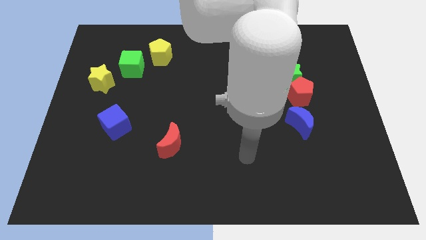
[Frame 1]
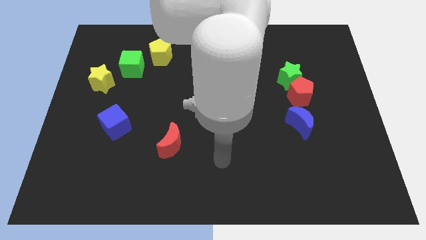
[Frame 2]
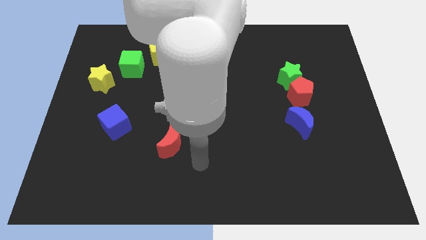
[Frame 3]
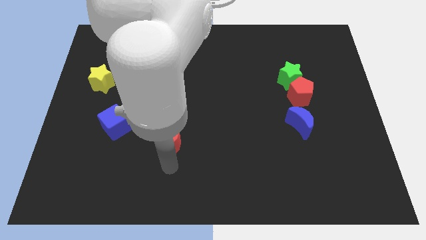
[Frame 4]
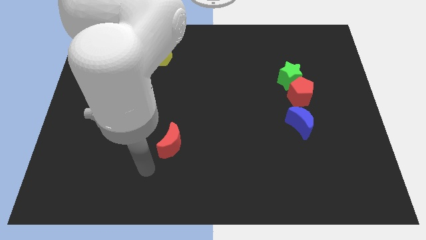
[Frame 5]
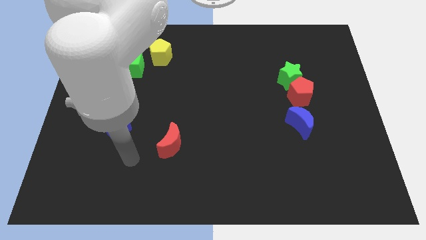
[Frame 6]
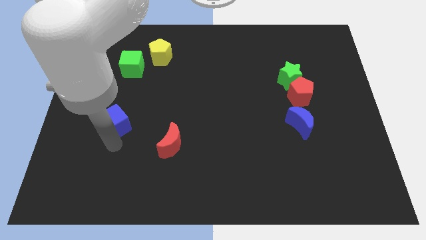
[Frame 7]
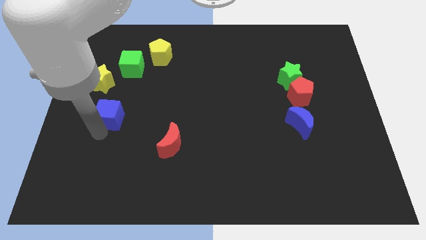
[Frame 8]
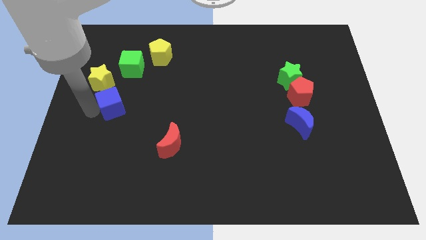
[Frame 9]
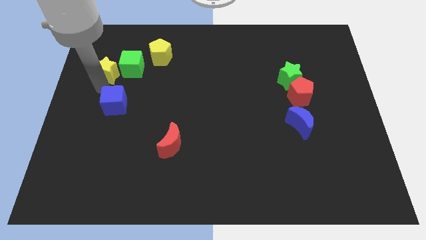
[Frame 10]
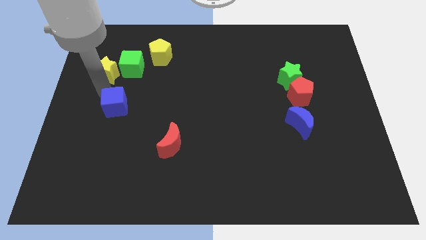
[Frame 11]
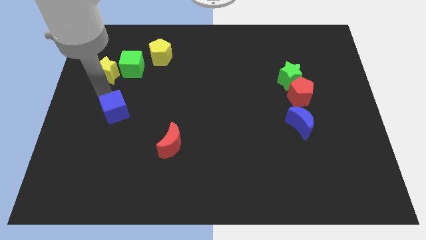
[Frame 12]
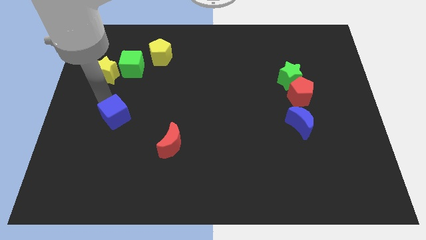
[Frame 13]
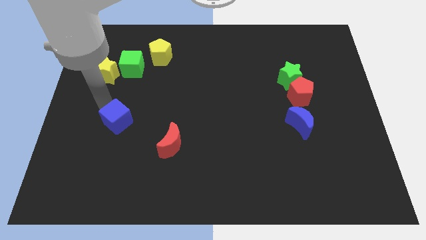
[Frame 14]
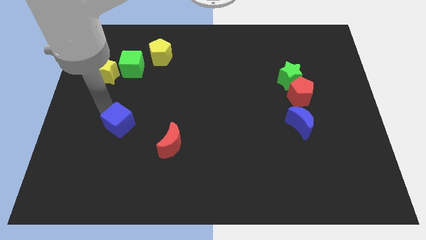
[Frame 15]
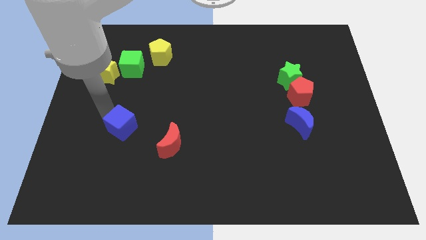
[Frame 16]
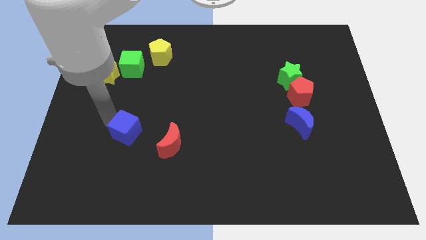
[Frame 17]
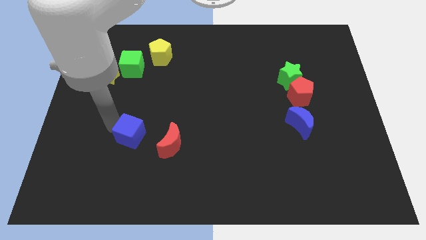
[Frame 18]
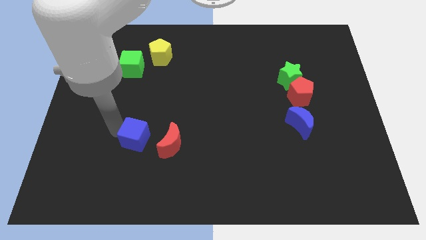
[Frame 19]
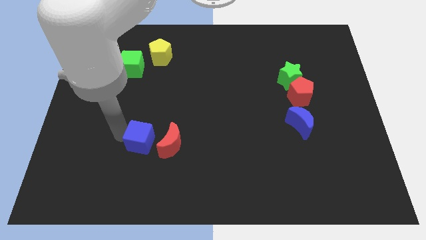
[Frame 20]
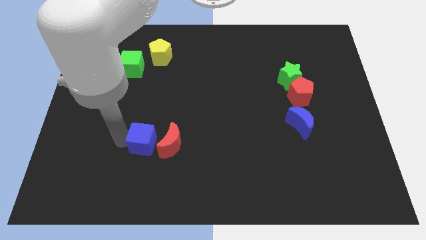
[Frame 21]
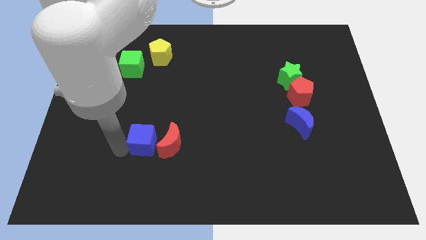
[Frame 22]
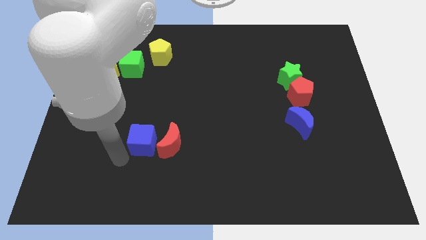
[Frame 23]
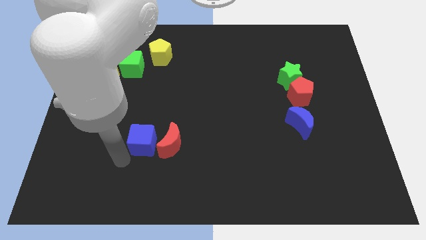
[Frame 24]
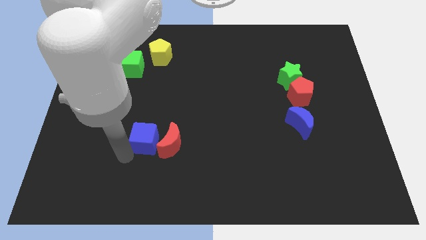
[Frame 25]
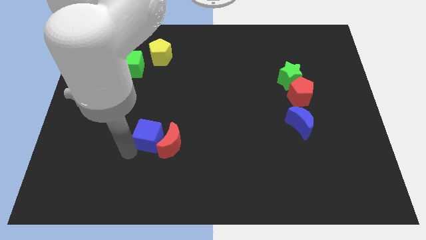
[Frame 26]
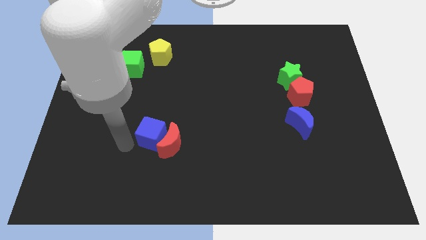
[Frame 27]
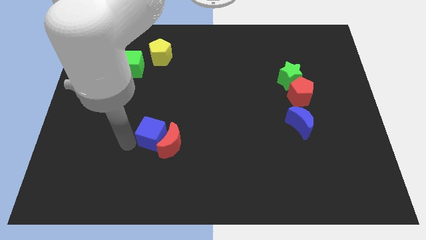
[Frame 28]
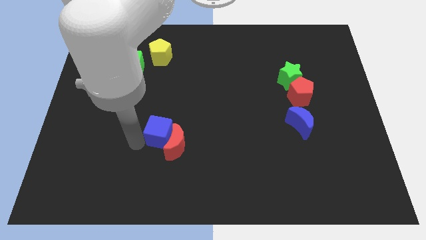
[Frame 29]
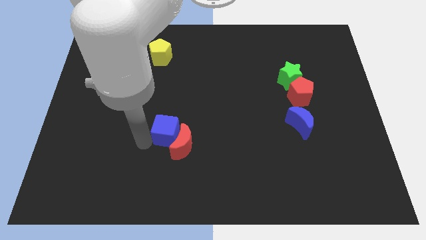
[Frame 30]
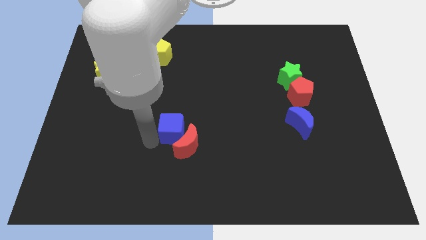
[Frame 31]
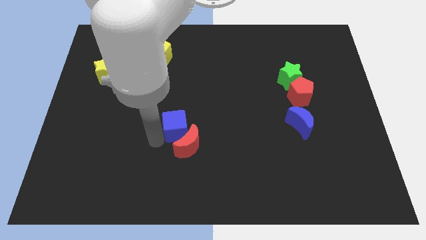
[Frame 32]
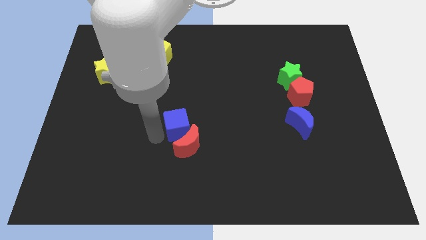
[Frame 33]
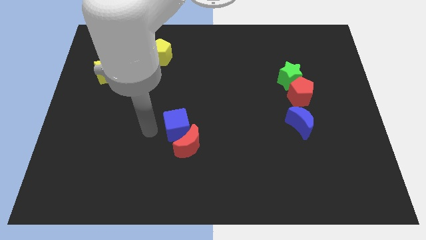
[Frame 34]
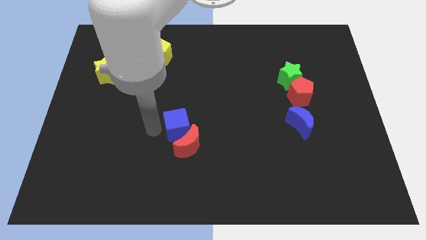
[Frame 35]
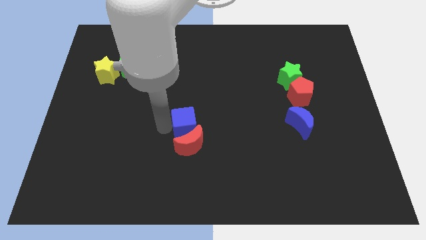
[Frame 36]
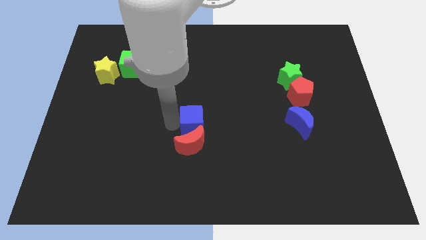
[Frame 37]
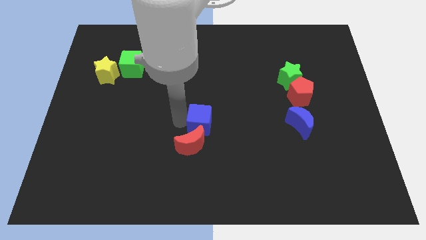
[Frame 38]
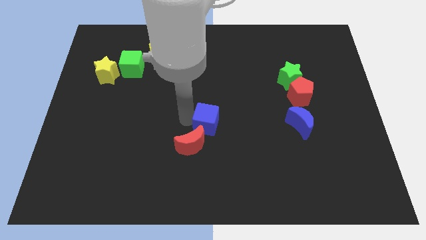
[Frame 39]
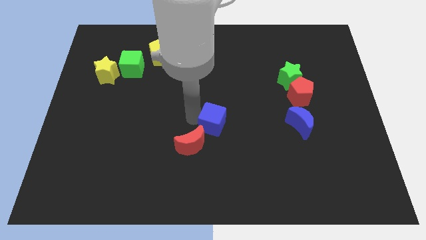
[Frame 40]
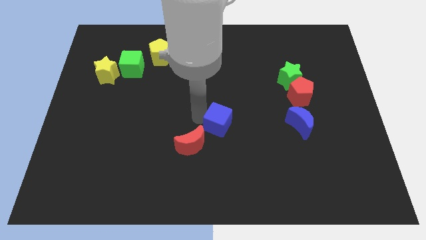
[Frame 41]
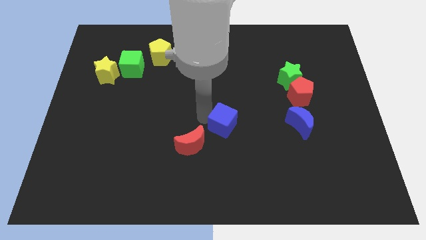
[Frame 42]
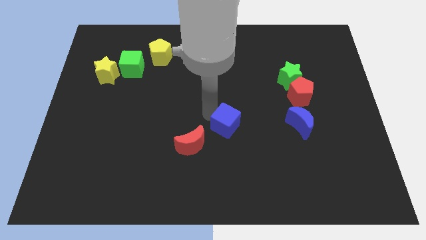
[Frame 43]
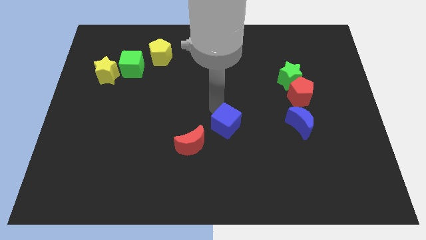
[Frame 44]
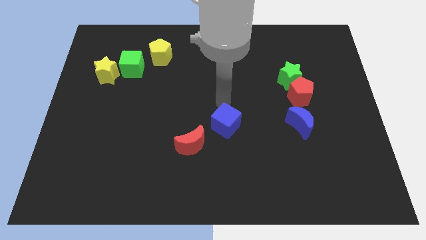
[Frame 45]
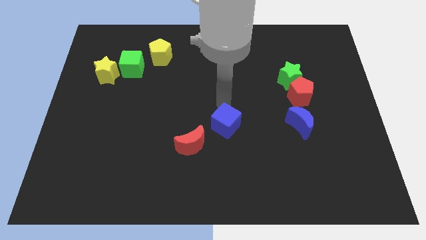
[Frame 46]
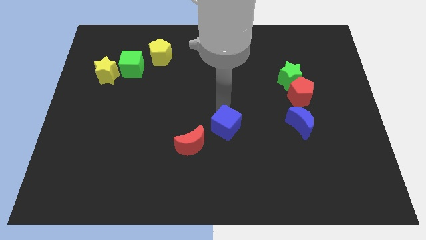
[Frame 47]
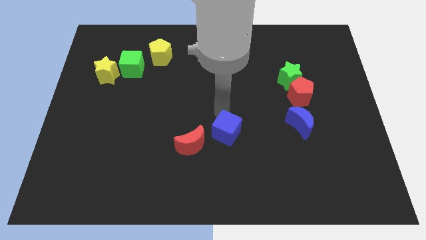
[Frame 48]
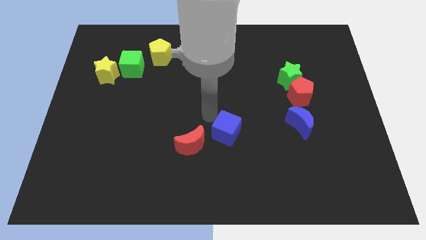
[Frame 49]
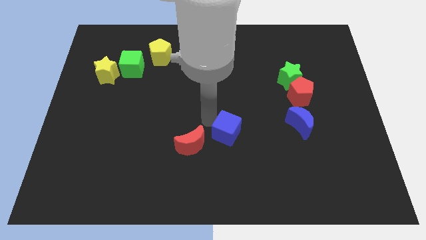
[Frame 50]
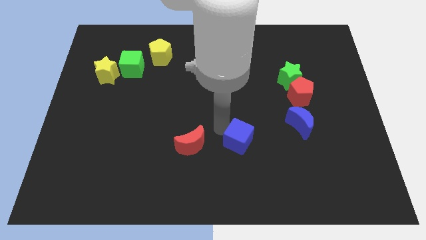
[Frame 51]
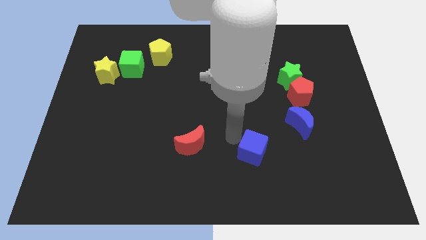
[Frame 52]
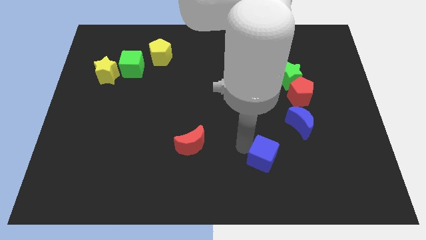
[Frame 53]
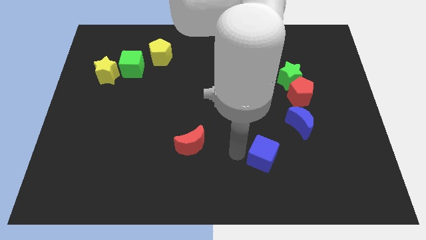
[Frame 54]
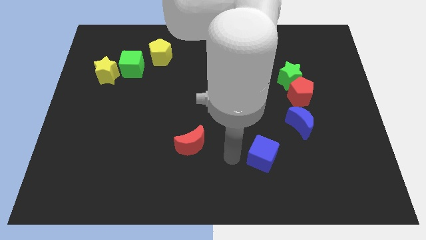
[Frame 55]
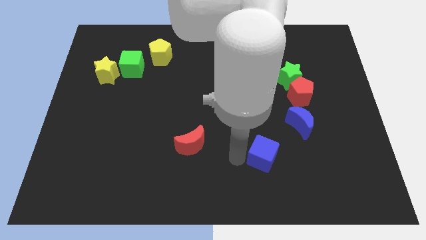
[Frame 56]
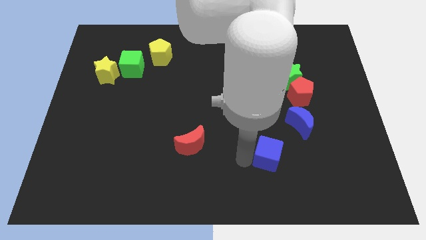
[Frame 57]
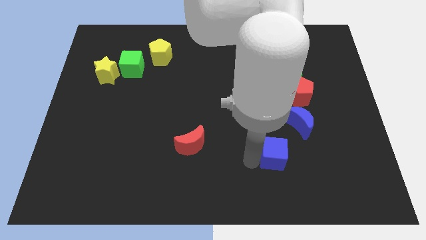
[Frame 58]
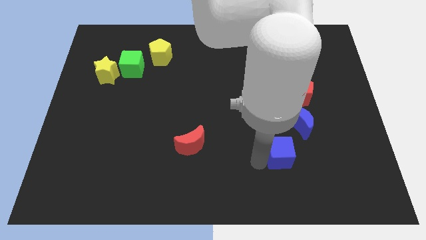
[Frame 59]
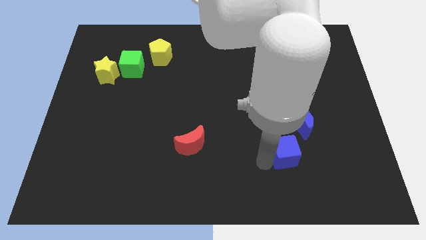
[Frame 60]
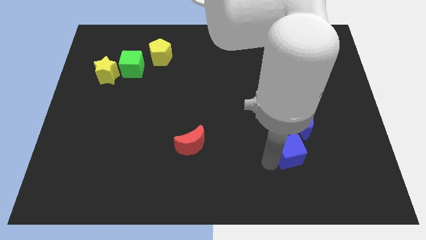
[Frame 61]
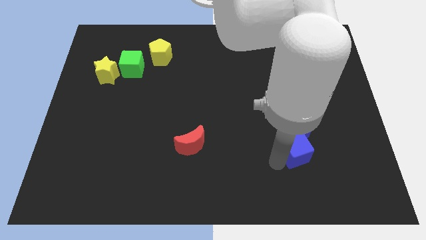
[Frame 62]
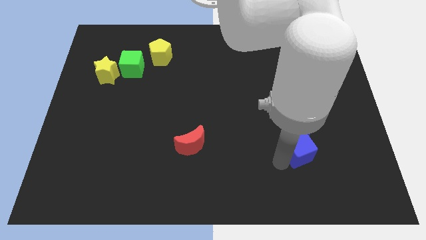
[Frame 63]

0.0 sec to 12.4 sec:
put the blue cube to the bottom of the red pentagon

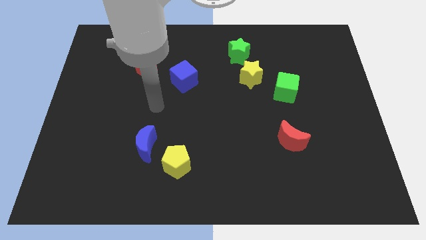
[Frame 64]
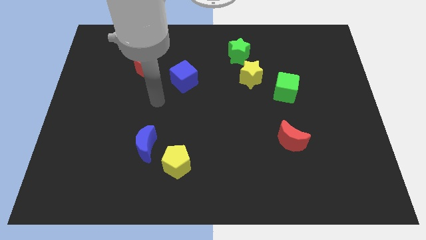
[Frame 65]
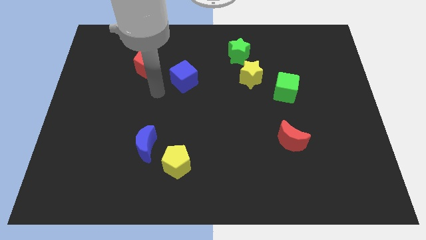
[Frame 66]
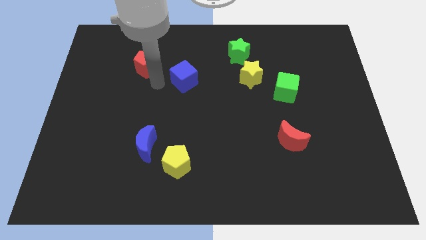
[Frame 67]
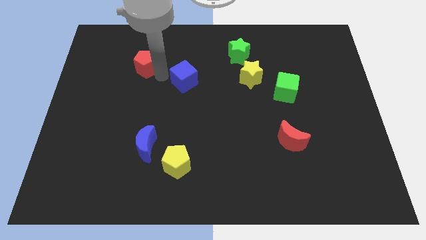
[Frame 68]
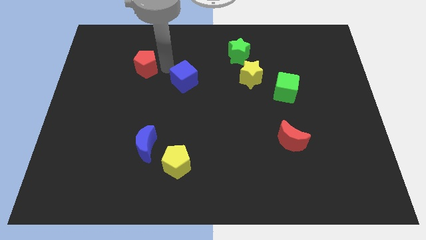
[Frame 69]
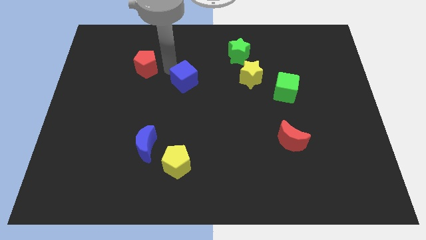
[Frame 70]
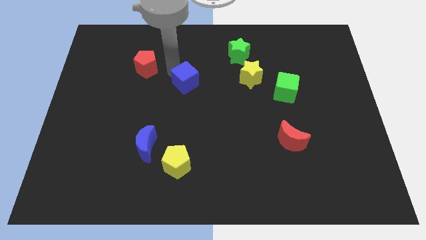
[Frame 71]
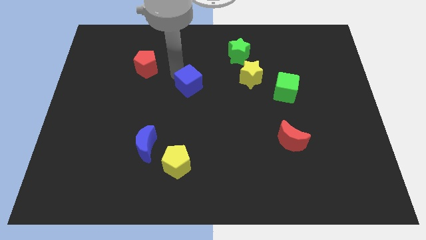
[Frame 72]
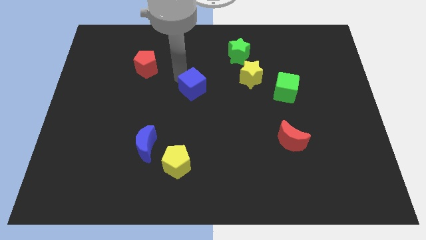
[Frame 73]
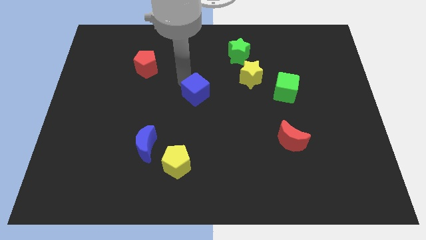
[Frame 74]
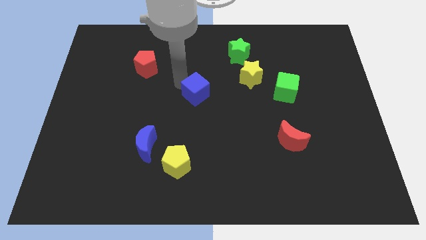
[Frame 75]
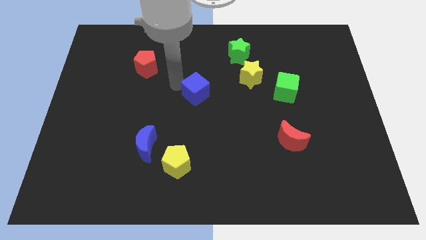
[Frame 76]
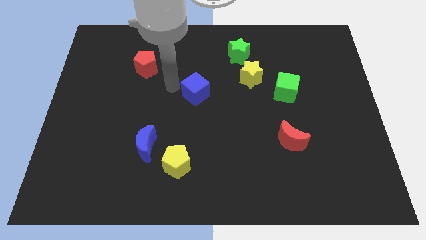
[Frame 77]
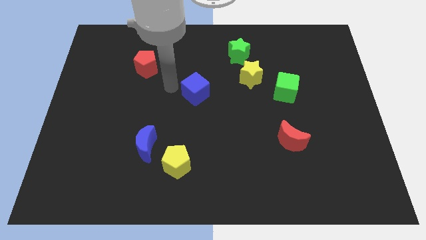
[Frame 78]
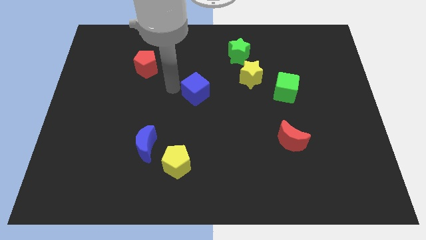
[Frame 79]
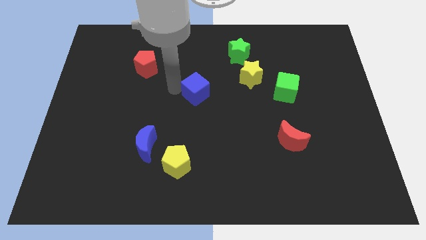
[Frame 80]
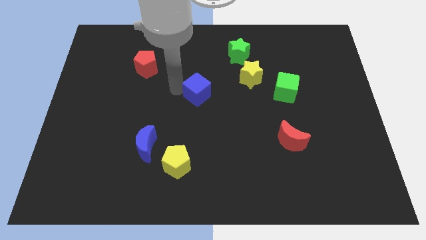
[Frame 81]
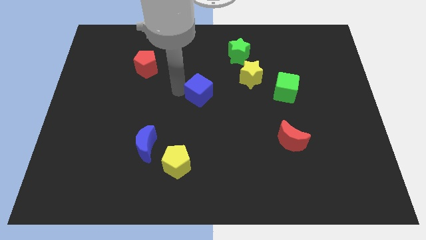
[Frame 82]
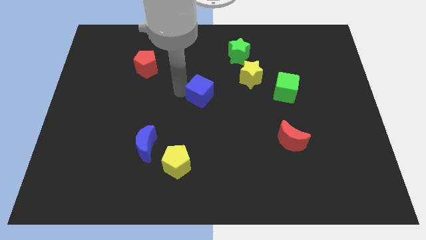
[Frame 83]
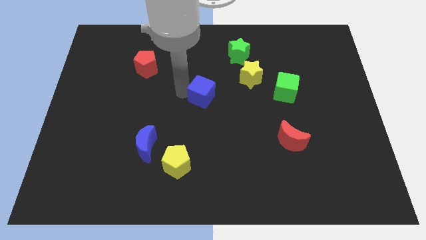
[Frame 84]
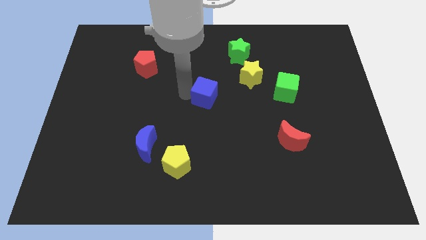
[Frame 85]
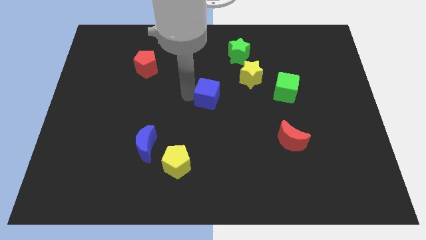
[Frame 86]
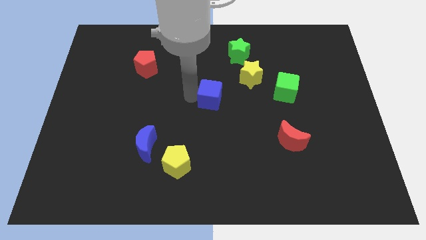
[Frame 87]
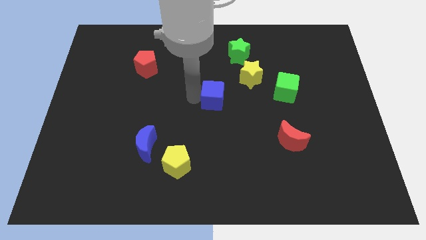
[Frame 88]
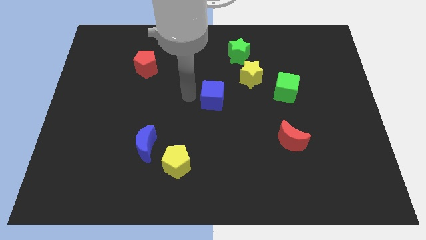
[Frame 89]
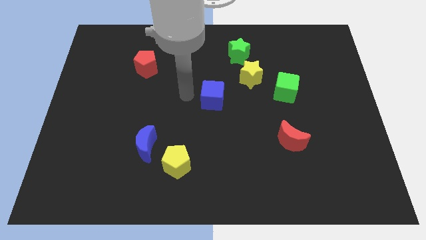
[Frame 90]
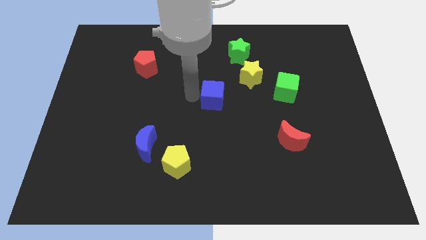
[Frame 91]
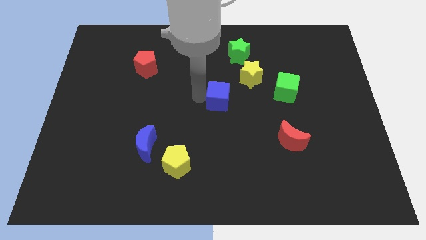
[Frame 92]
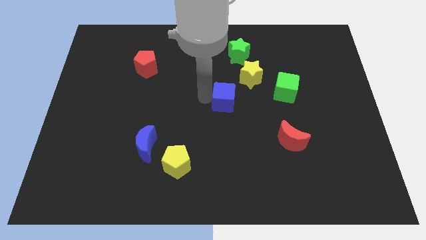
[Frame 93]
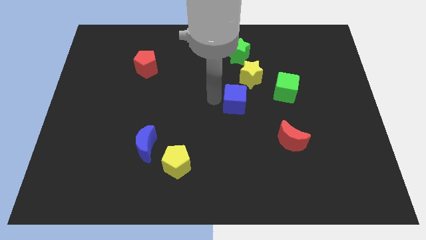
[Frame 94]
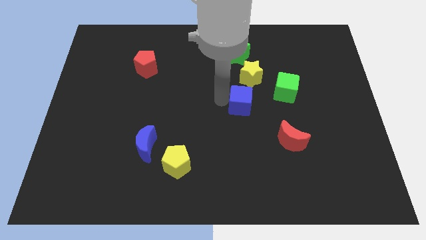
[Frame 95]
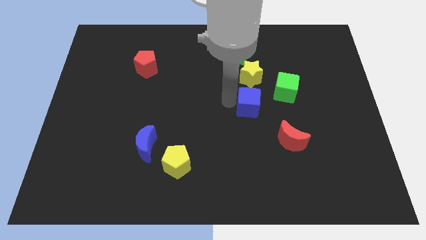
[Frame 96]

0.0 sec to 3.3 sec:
push the blue cube diagonally down and to the left of the green cube
